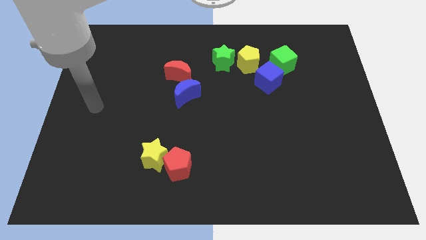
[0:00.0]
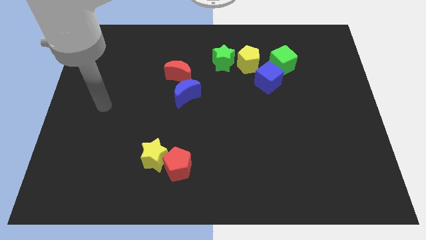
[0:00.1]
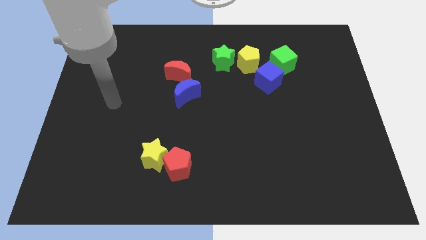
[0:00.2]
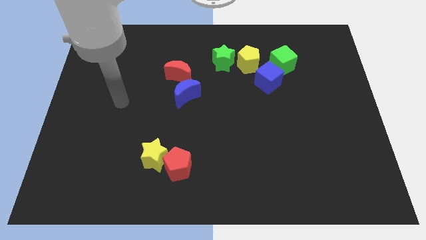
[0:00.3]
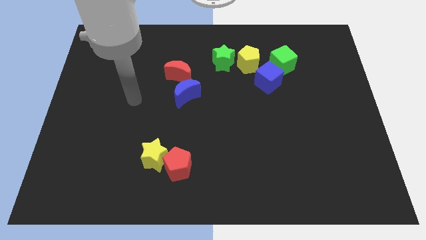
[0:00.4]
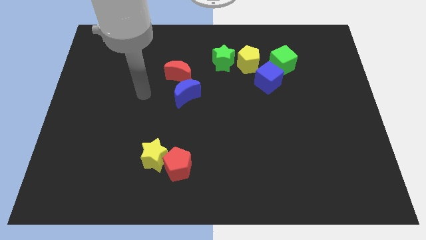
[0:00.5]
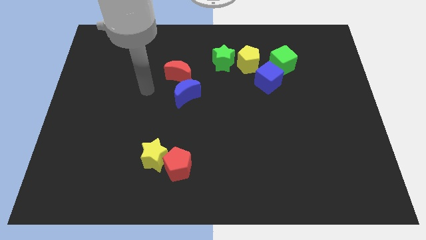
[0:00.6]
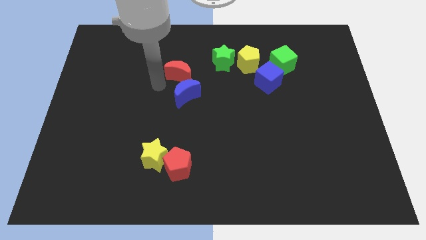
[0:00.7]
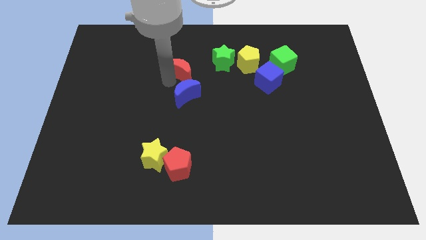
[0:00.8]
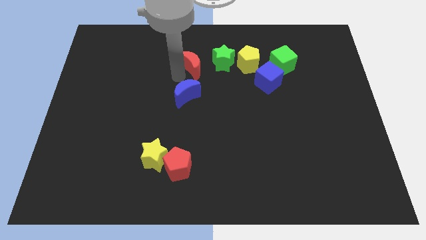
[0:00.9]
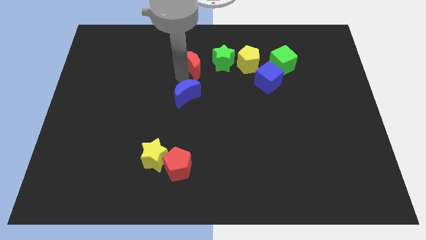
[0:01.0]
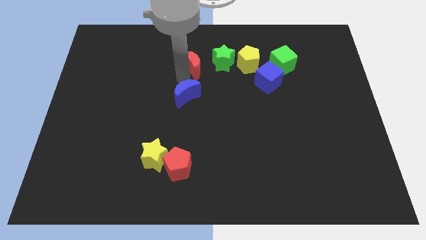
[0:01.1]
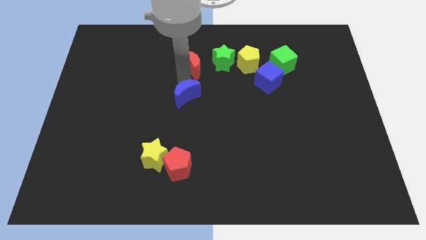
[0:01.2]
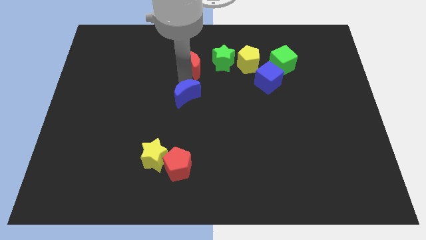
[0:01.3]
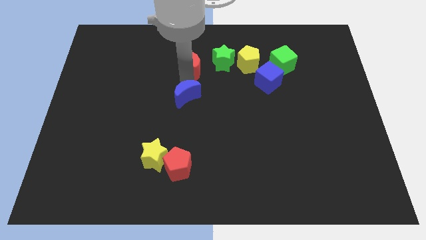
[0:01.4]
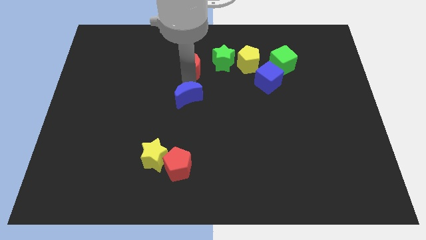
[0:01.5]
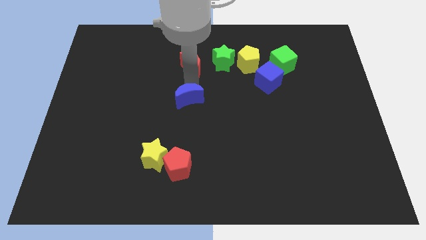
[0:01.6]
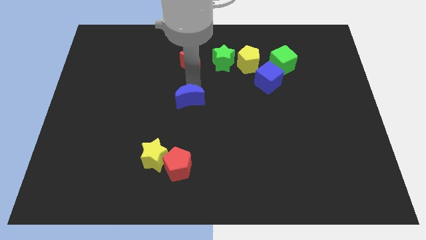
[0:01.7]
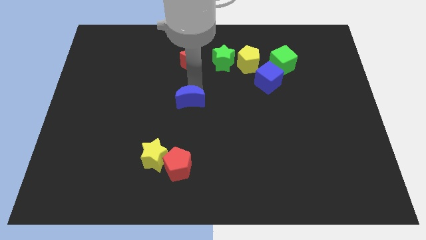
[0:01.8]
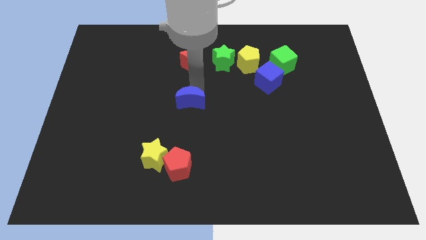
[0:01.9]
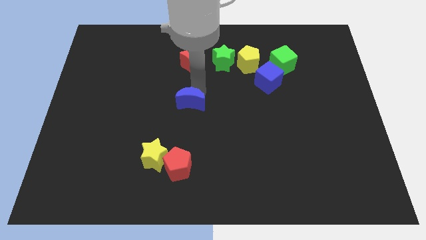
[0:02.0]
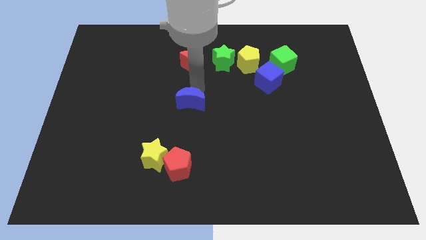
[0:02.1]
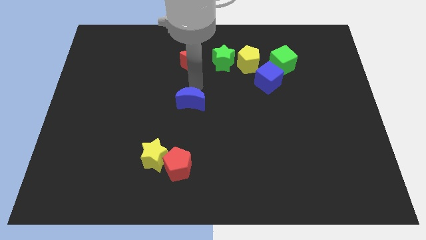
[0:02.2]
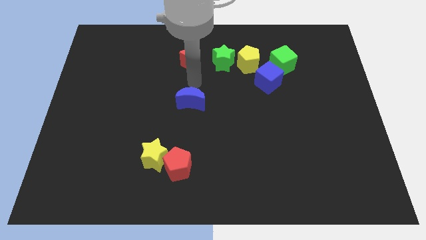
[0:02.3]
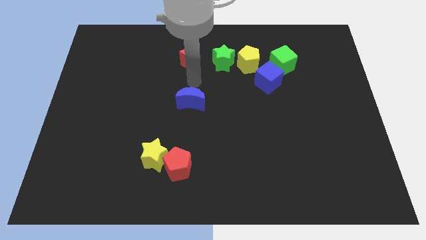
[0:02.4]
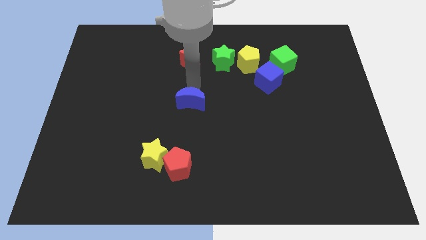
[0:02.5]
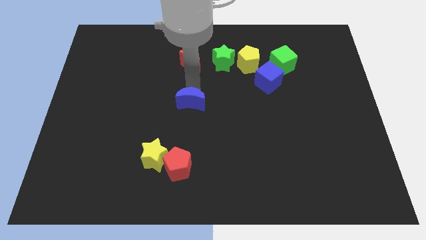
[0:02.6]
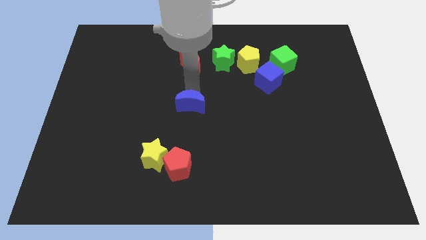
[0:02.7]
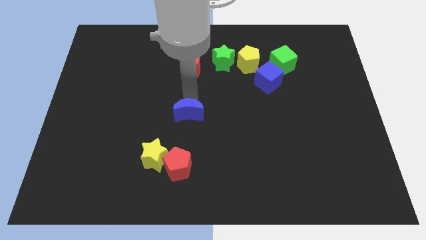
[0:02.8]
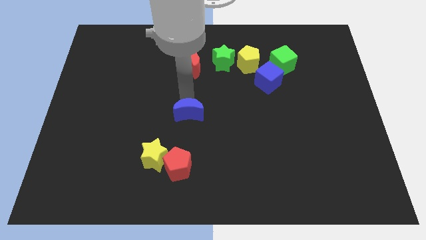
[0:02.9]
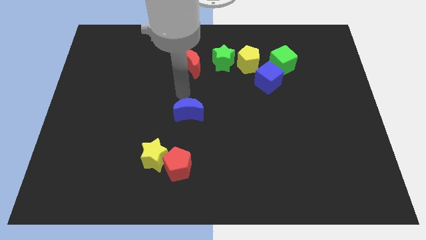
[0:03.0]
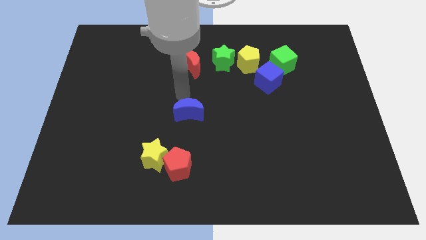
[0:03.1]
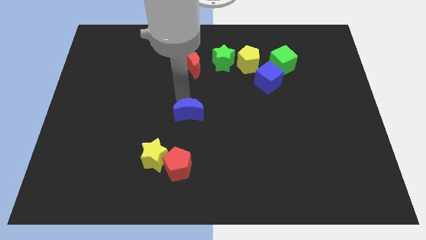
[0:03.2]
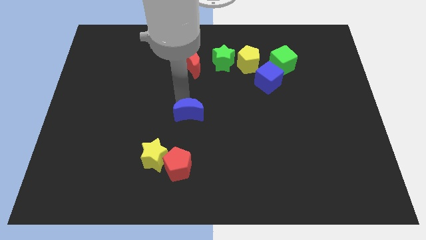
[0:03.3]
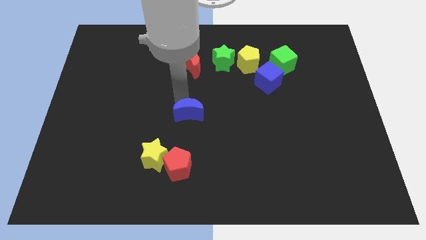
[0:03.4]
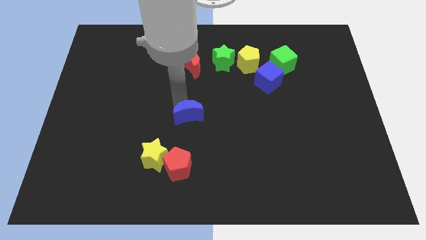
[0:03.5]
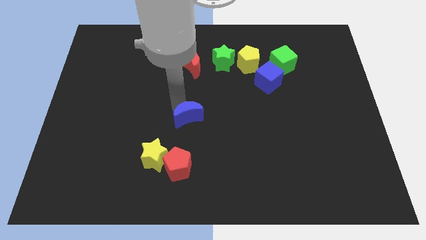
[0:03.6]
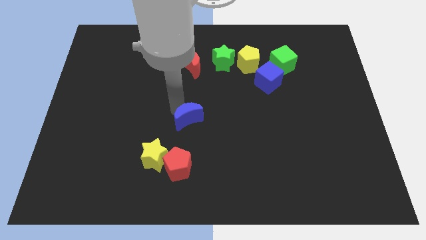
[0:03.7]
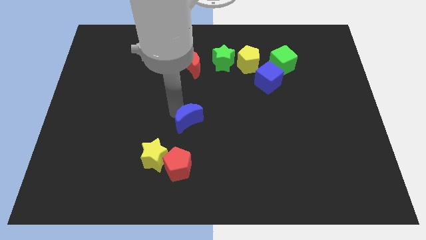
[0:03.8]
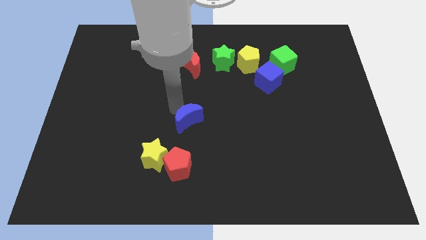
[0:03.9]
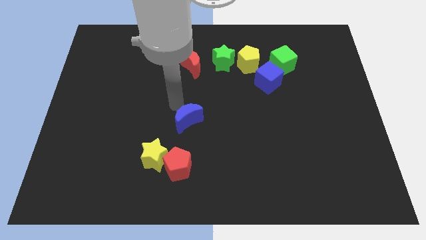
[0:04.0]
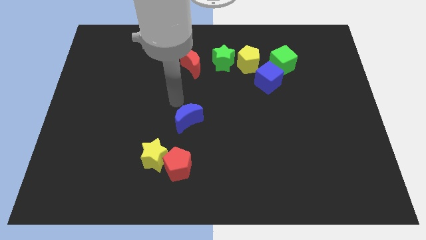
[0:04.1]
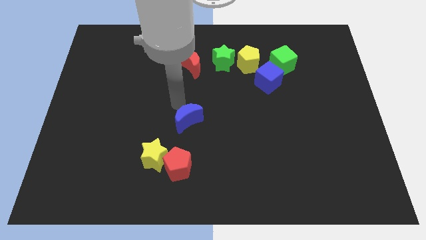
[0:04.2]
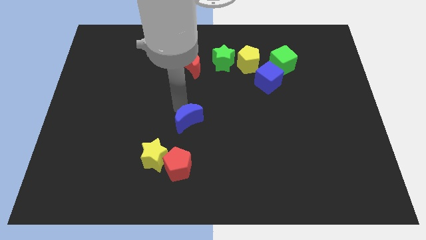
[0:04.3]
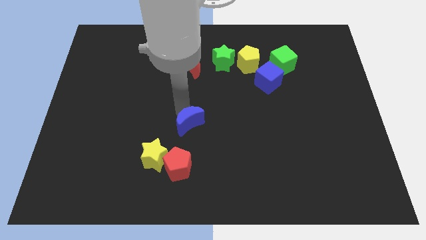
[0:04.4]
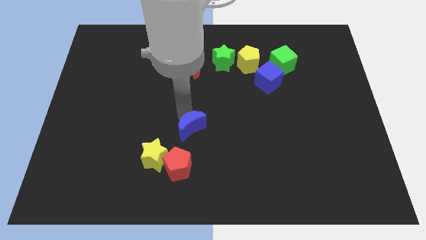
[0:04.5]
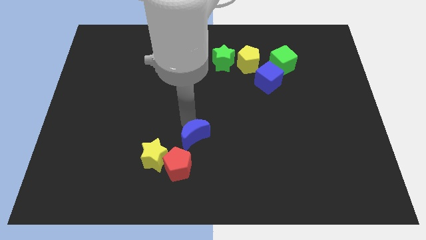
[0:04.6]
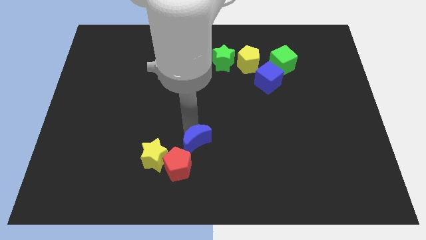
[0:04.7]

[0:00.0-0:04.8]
move the blue moon to the right of the yellow star

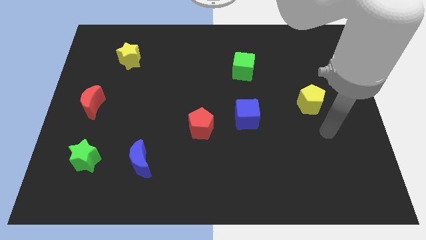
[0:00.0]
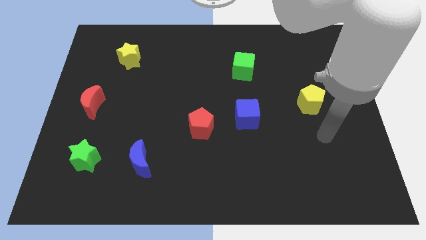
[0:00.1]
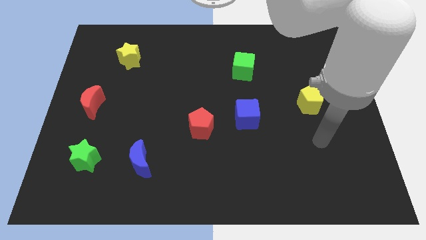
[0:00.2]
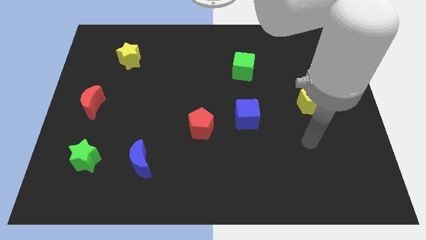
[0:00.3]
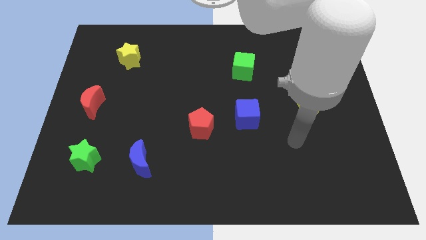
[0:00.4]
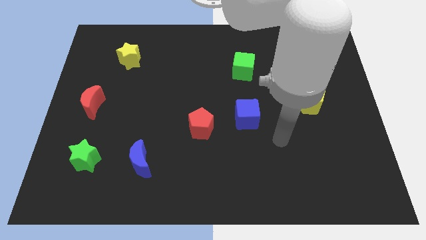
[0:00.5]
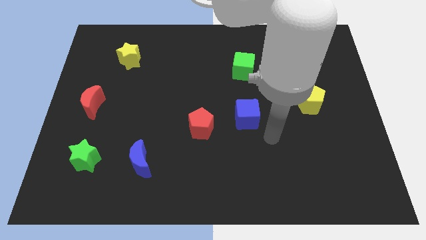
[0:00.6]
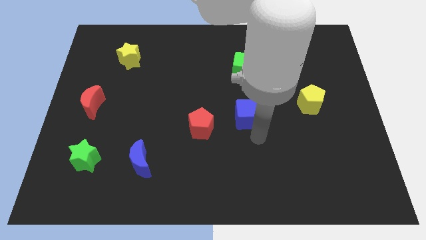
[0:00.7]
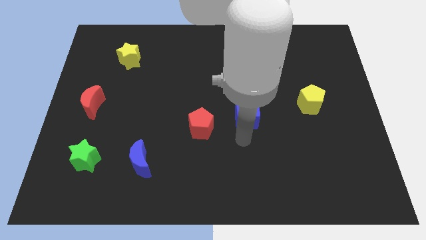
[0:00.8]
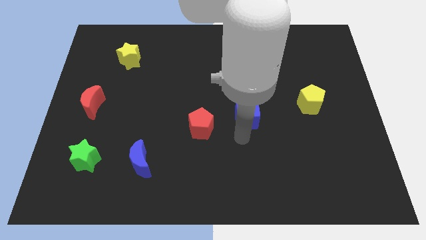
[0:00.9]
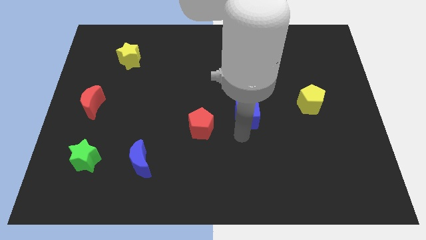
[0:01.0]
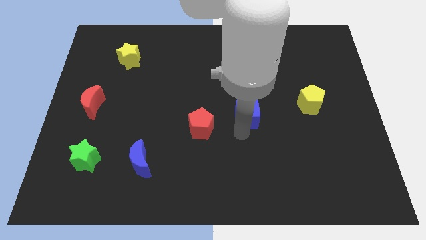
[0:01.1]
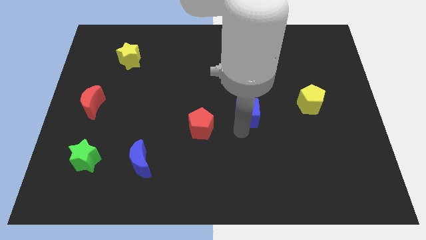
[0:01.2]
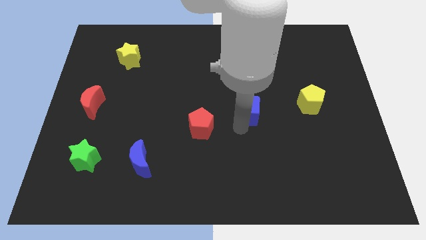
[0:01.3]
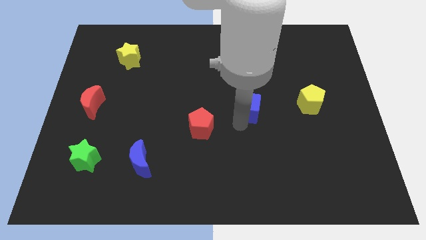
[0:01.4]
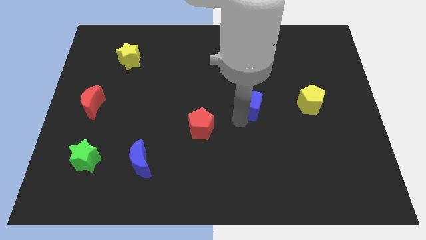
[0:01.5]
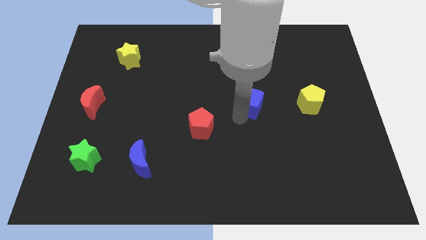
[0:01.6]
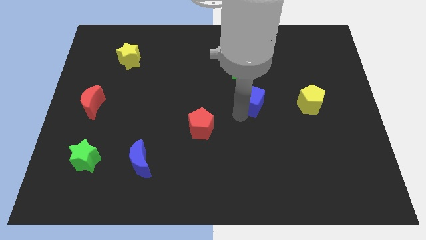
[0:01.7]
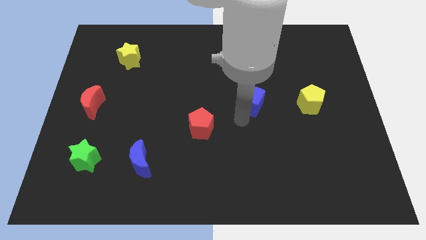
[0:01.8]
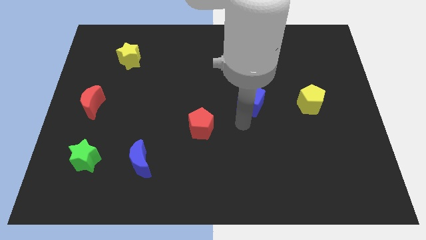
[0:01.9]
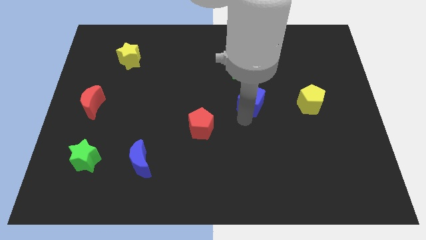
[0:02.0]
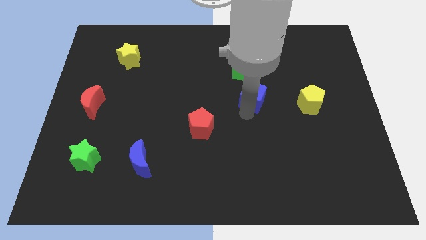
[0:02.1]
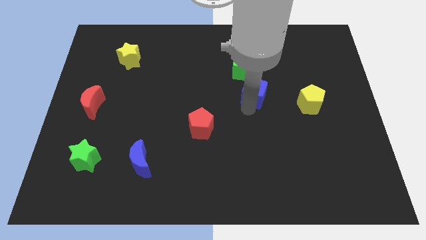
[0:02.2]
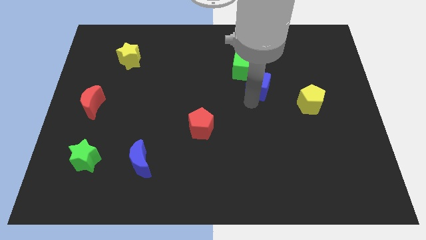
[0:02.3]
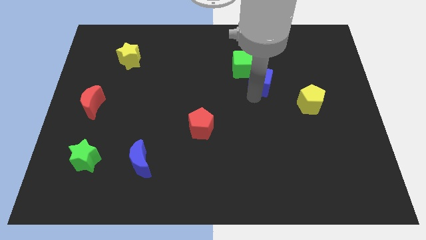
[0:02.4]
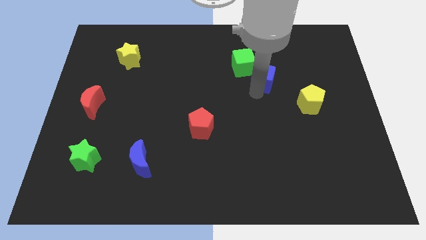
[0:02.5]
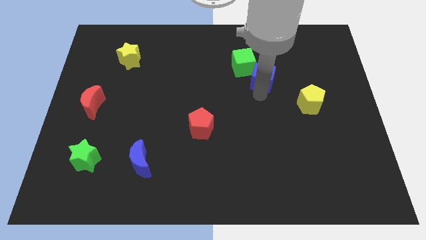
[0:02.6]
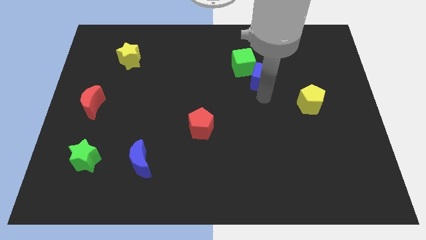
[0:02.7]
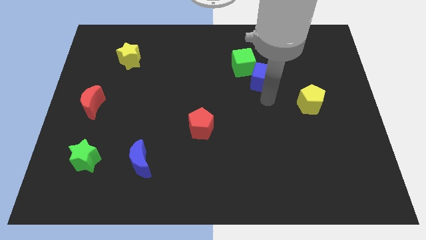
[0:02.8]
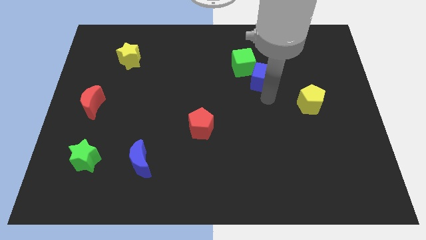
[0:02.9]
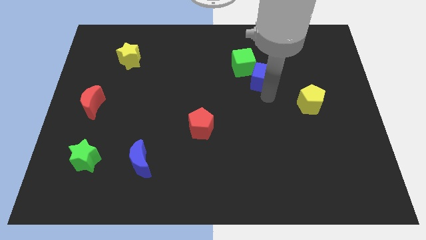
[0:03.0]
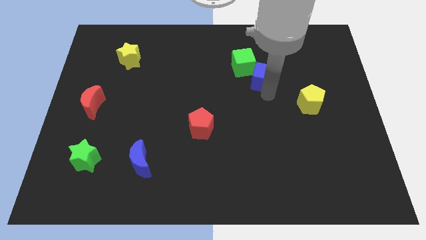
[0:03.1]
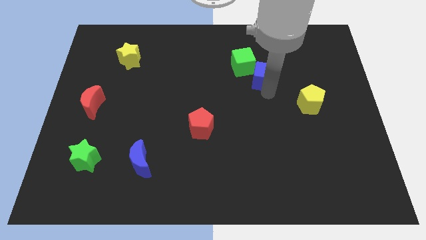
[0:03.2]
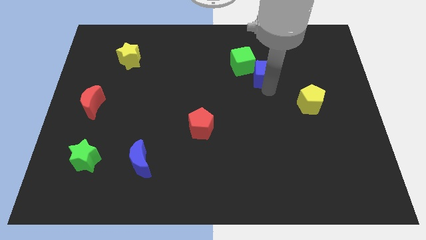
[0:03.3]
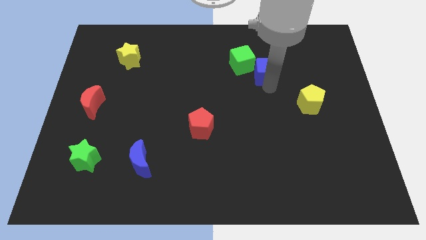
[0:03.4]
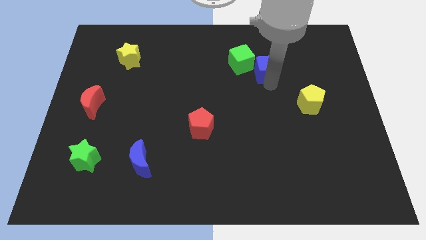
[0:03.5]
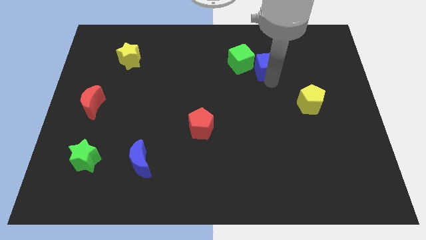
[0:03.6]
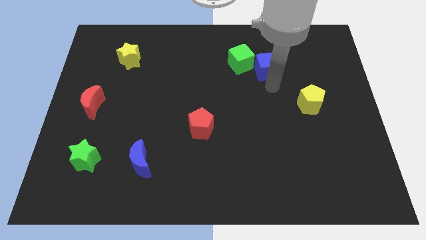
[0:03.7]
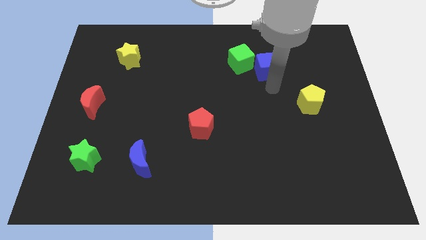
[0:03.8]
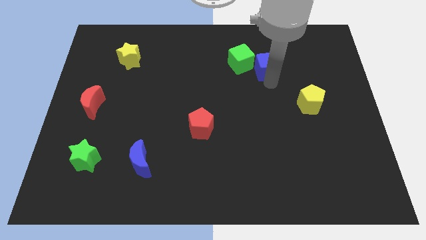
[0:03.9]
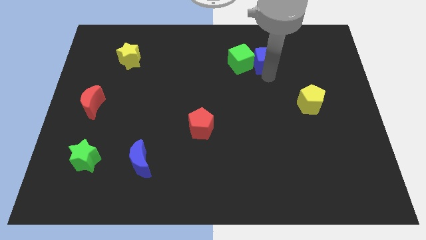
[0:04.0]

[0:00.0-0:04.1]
push the blue cube diagonally up and to the right of the green cube
